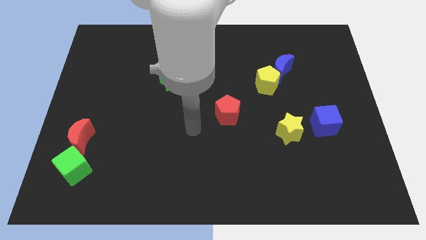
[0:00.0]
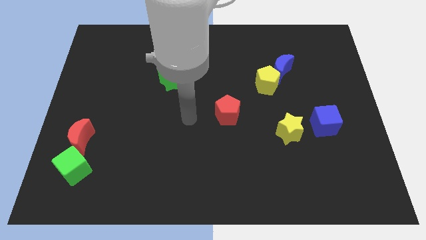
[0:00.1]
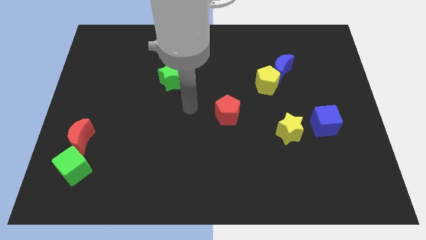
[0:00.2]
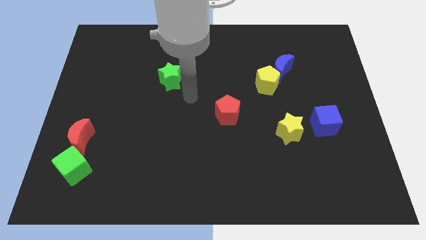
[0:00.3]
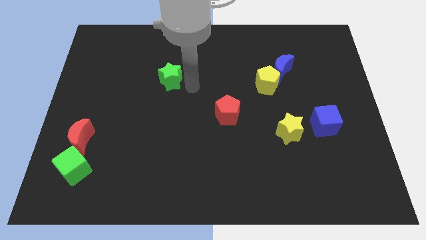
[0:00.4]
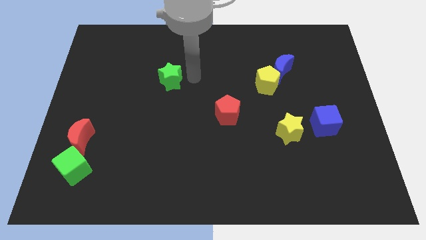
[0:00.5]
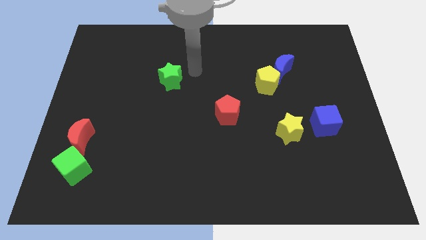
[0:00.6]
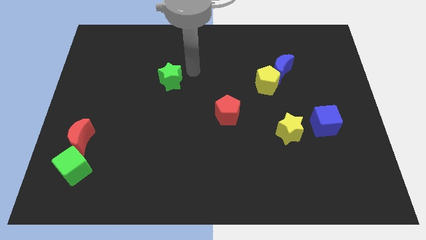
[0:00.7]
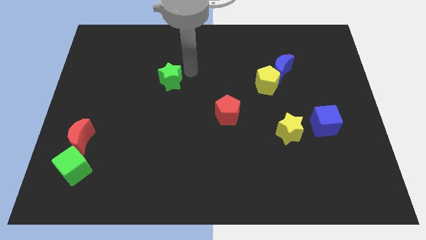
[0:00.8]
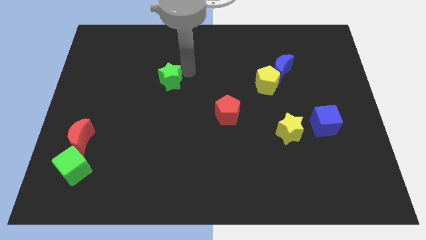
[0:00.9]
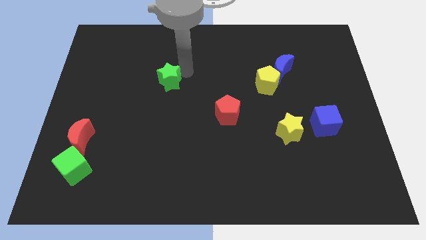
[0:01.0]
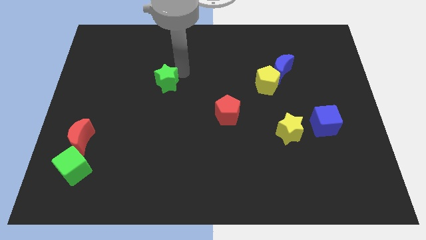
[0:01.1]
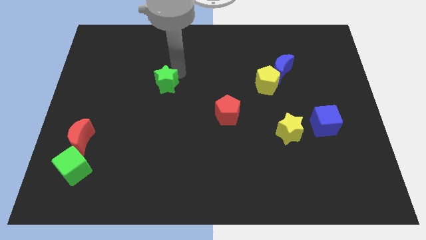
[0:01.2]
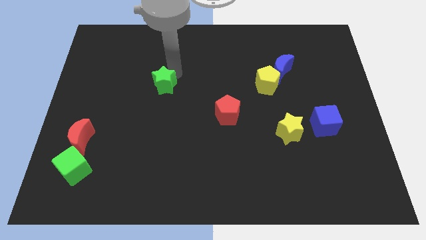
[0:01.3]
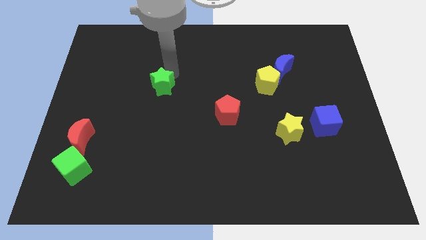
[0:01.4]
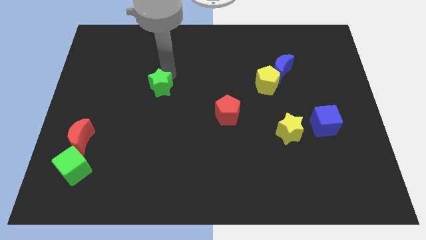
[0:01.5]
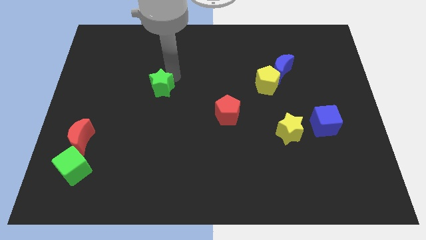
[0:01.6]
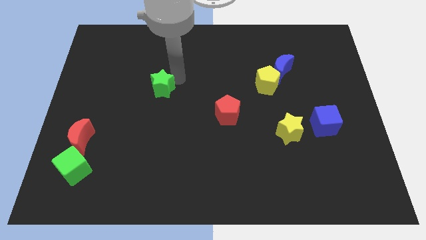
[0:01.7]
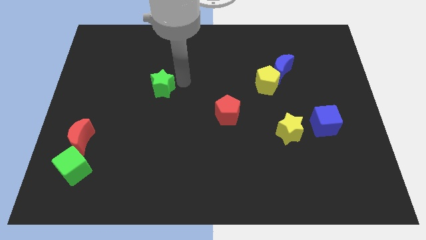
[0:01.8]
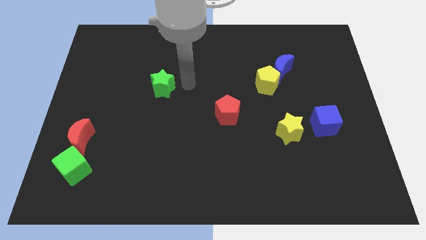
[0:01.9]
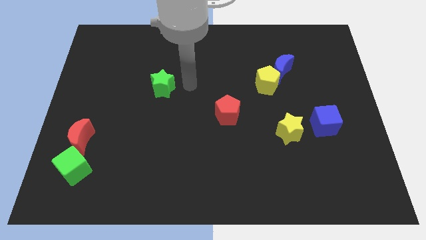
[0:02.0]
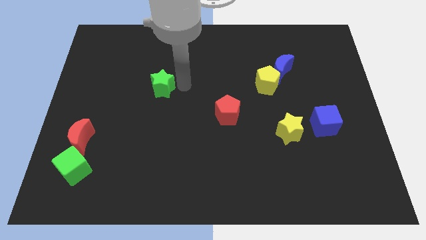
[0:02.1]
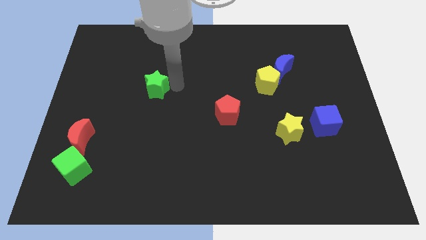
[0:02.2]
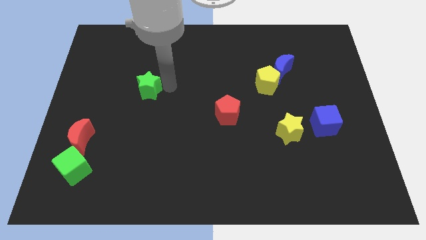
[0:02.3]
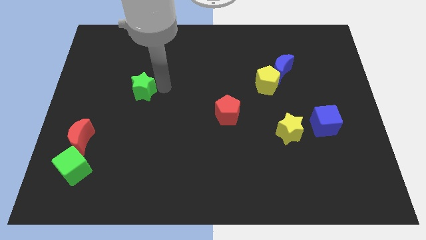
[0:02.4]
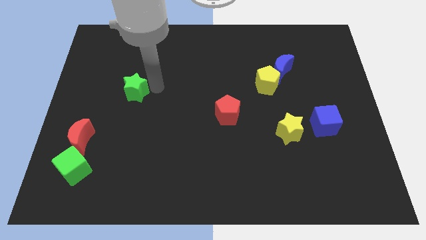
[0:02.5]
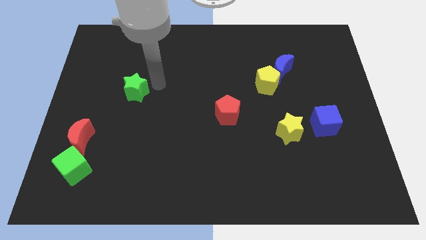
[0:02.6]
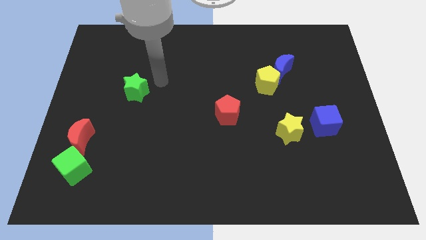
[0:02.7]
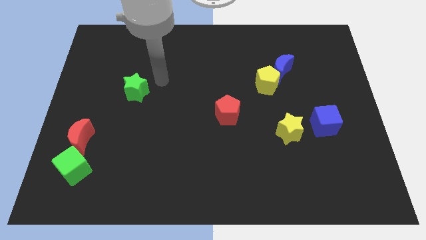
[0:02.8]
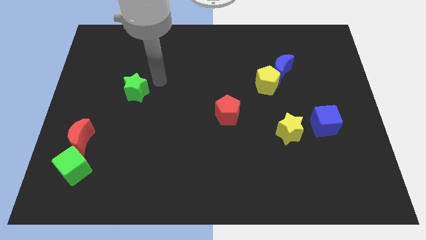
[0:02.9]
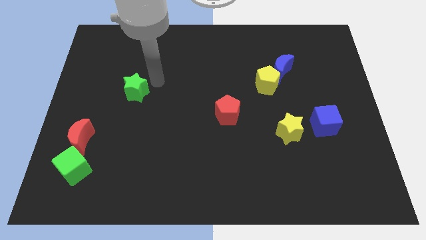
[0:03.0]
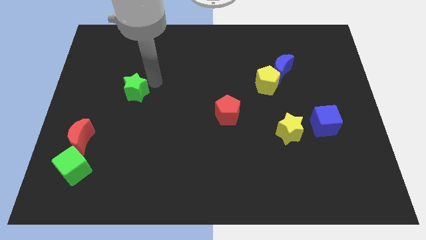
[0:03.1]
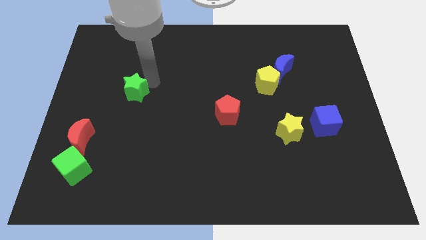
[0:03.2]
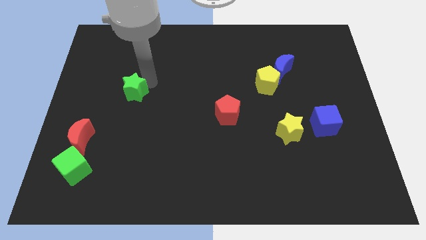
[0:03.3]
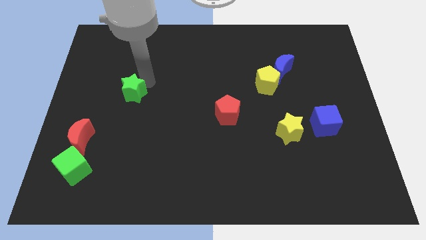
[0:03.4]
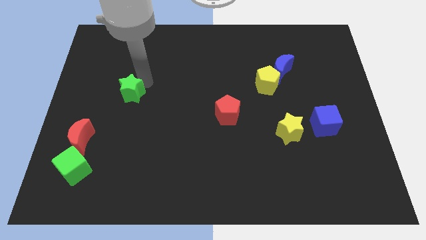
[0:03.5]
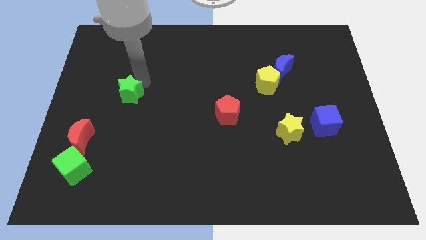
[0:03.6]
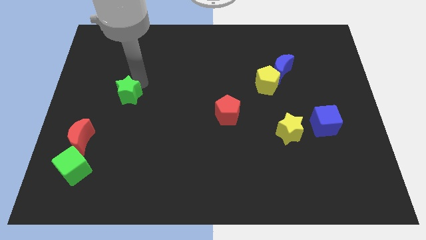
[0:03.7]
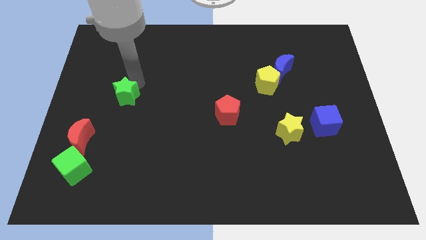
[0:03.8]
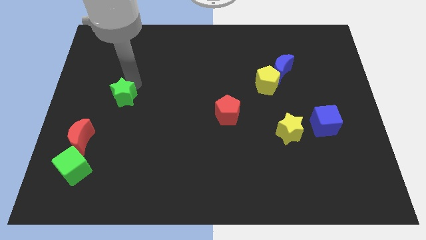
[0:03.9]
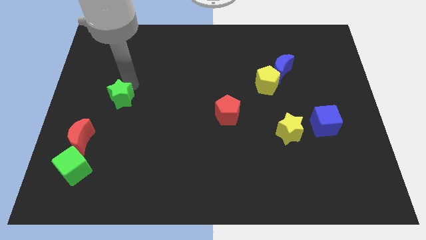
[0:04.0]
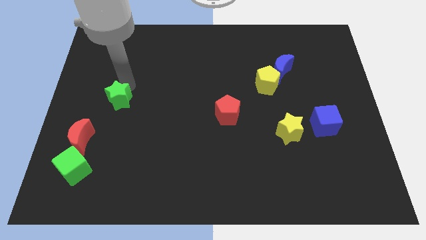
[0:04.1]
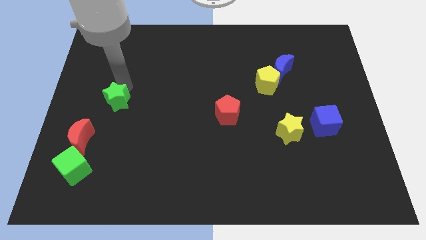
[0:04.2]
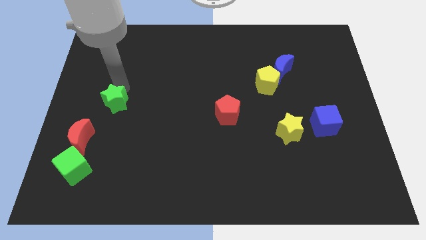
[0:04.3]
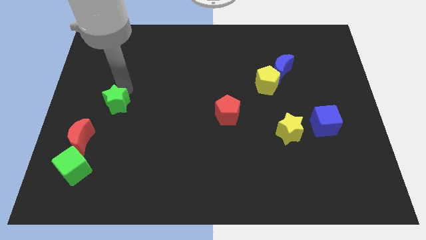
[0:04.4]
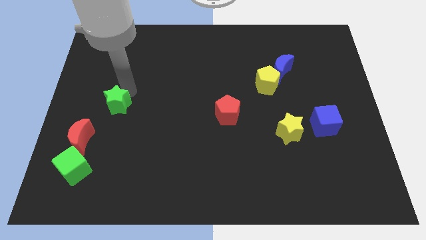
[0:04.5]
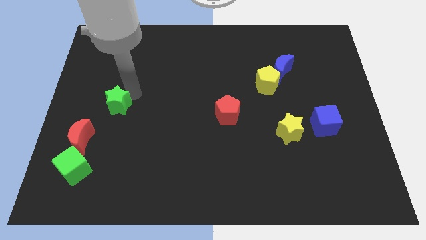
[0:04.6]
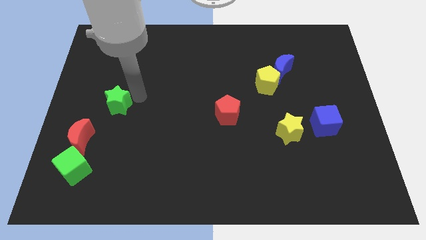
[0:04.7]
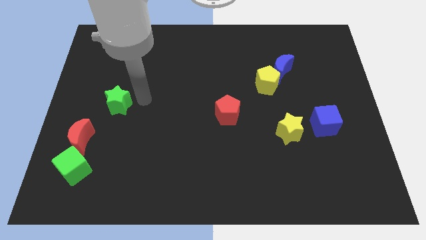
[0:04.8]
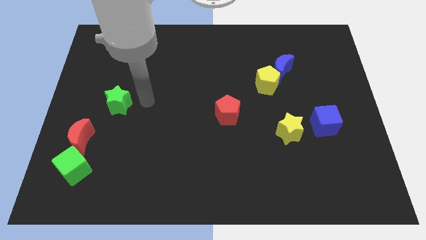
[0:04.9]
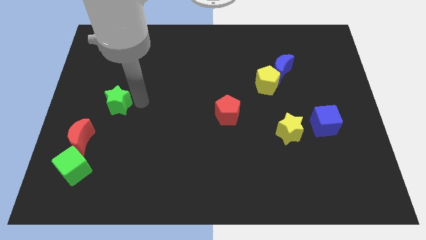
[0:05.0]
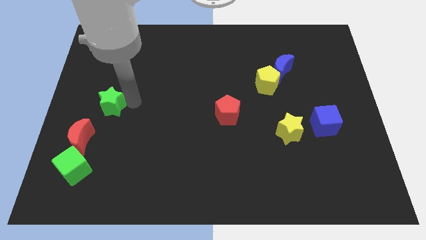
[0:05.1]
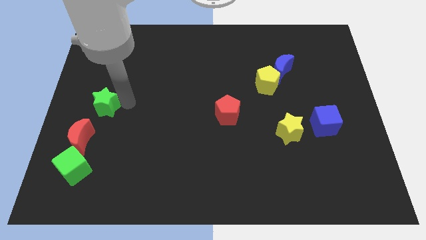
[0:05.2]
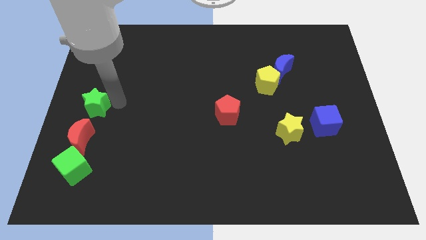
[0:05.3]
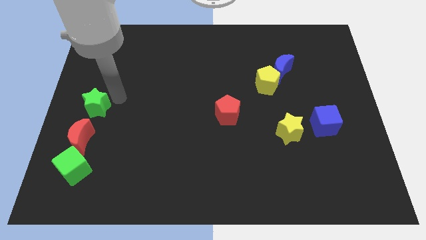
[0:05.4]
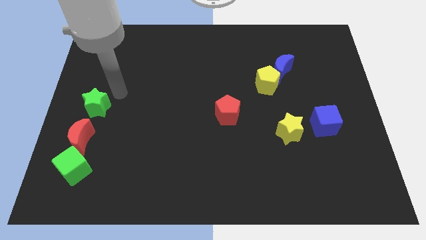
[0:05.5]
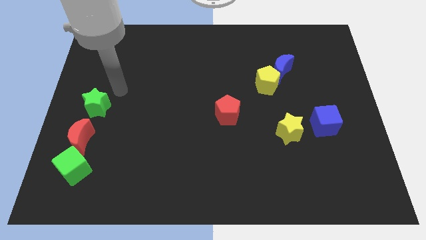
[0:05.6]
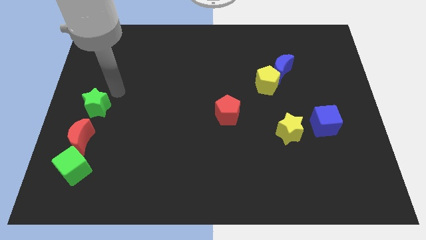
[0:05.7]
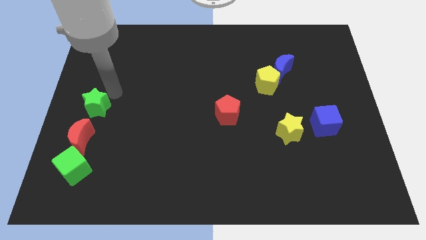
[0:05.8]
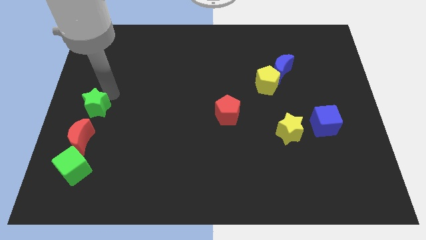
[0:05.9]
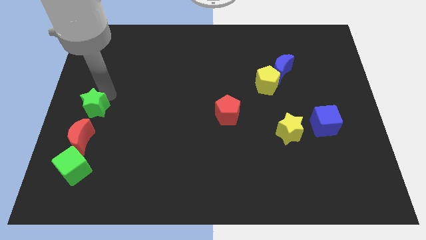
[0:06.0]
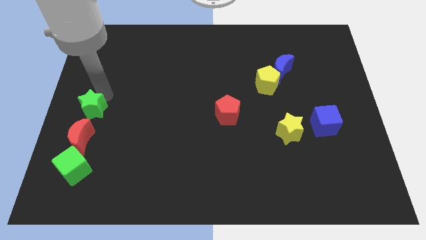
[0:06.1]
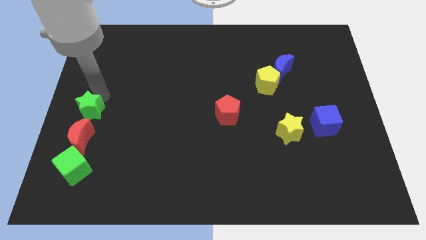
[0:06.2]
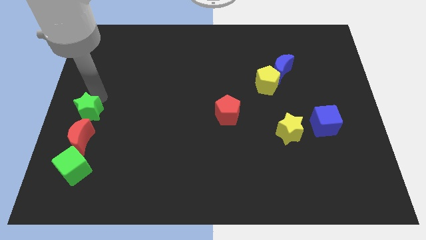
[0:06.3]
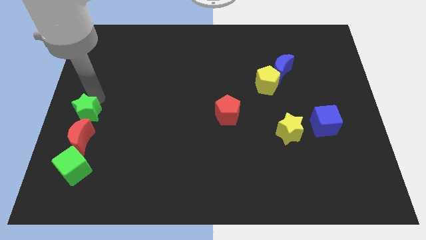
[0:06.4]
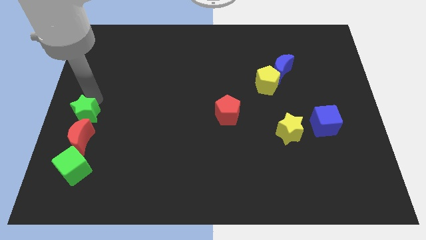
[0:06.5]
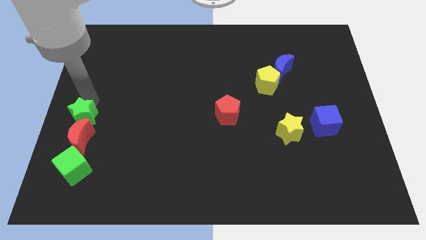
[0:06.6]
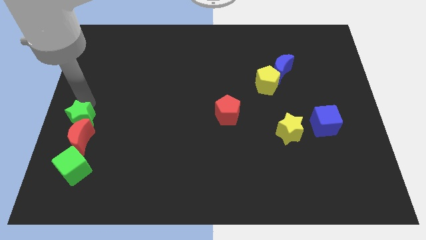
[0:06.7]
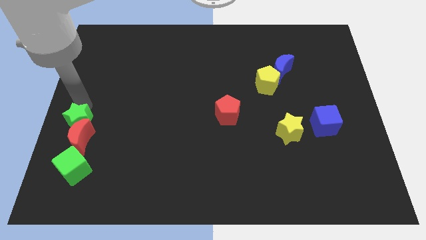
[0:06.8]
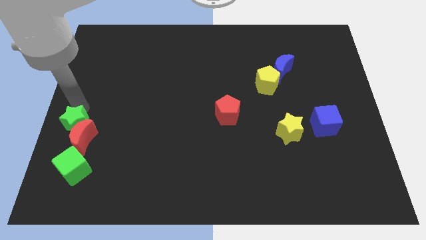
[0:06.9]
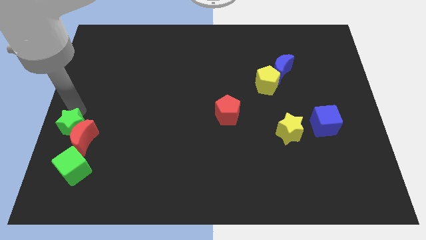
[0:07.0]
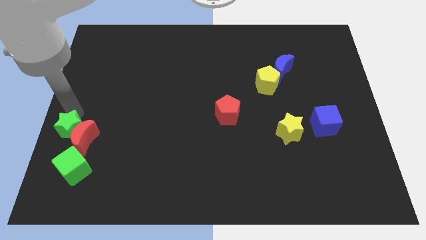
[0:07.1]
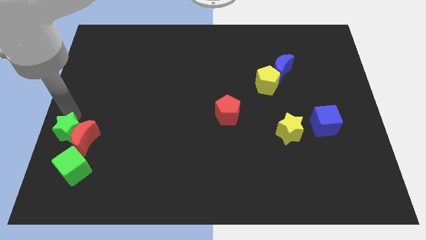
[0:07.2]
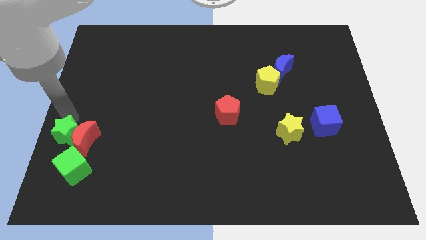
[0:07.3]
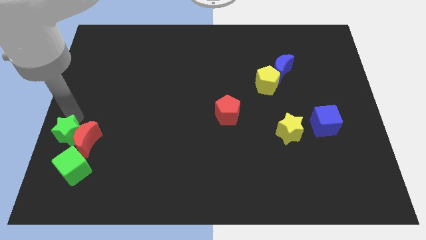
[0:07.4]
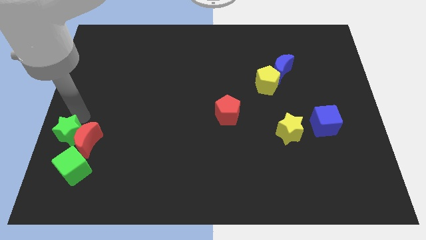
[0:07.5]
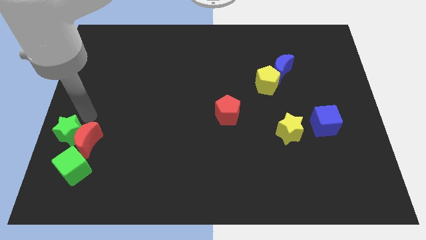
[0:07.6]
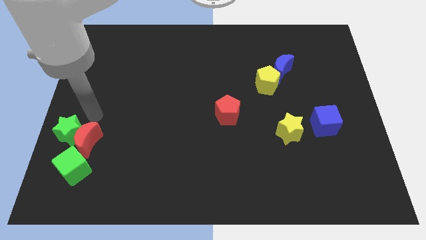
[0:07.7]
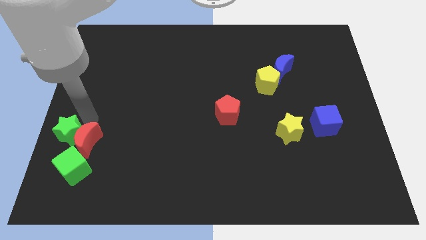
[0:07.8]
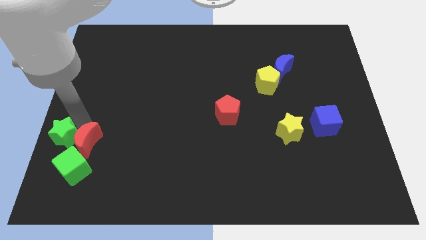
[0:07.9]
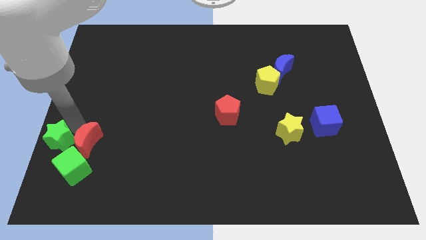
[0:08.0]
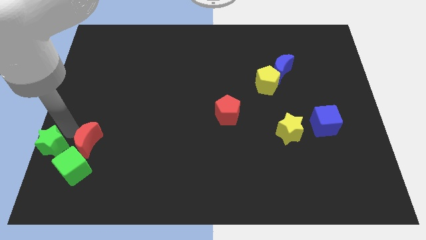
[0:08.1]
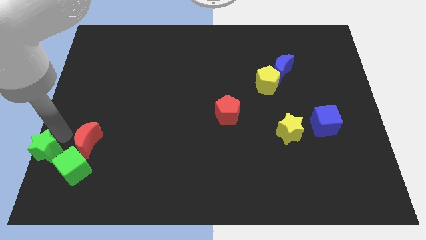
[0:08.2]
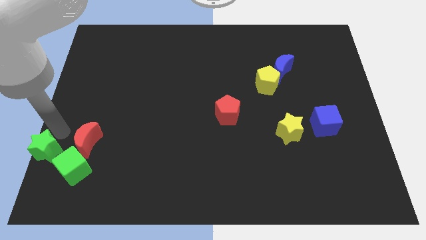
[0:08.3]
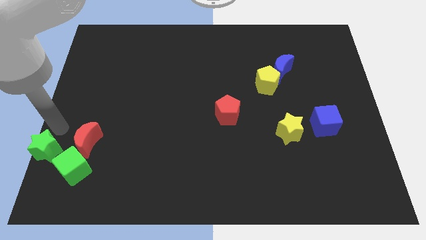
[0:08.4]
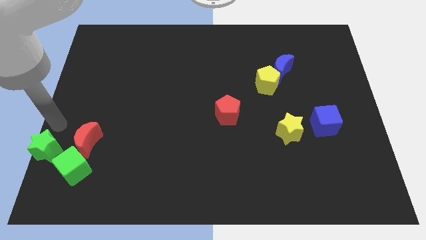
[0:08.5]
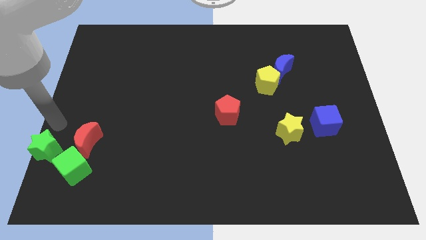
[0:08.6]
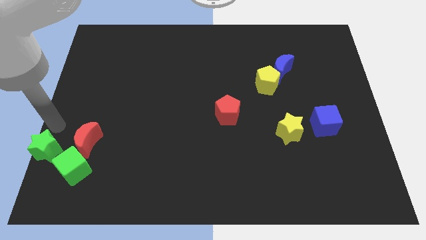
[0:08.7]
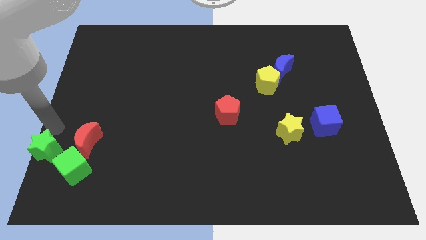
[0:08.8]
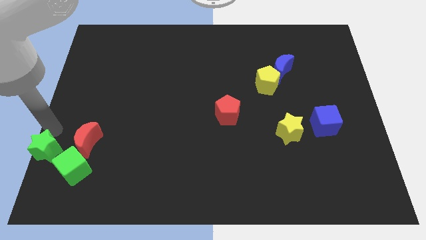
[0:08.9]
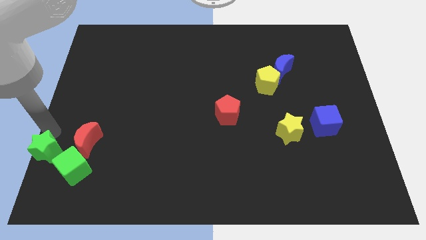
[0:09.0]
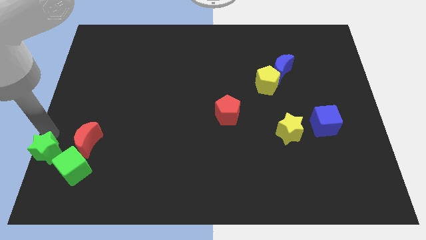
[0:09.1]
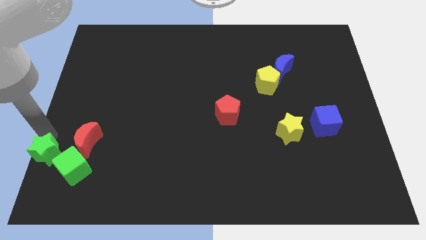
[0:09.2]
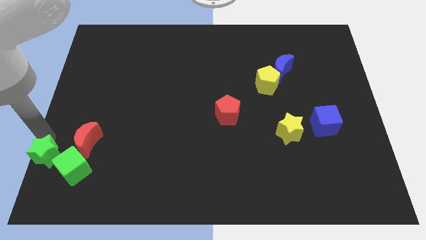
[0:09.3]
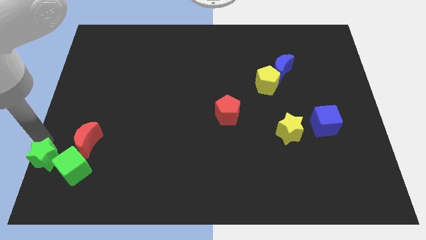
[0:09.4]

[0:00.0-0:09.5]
put the green star to the lower left corner
